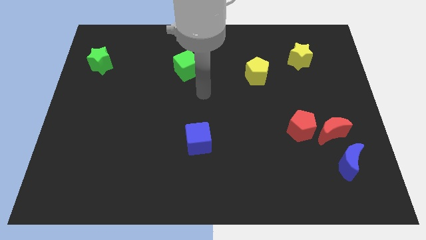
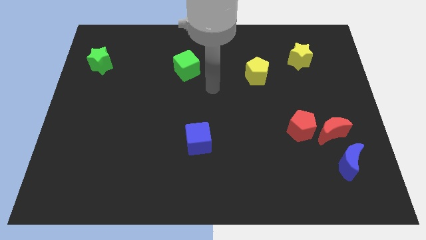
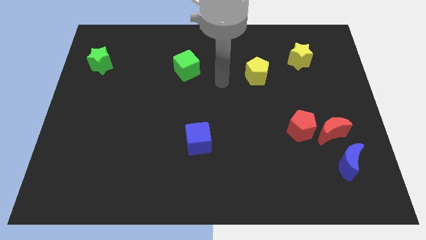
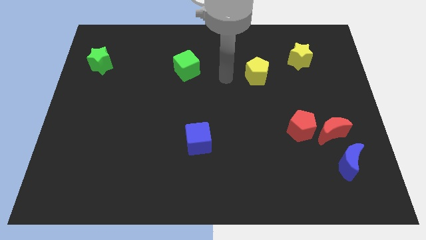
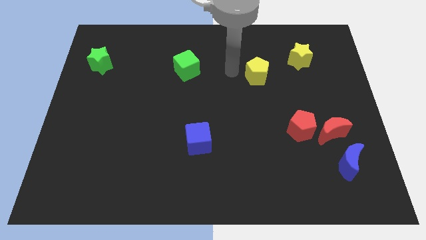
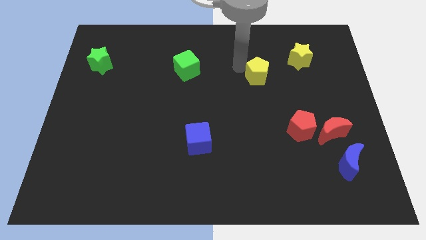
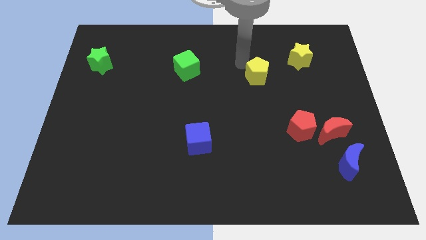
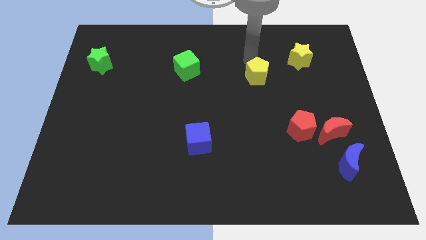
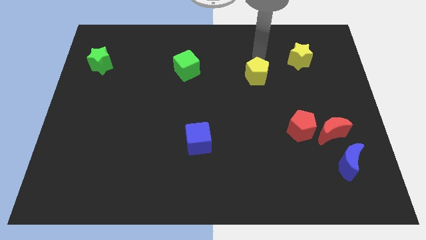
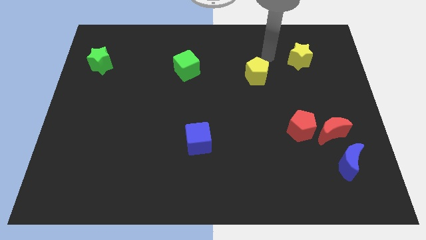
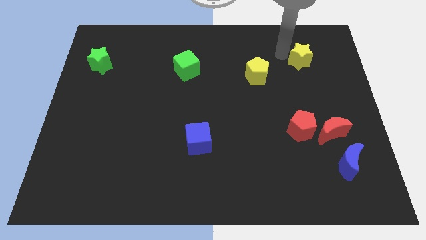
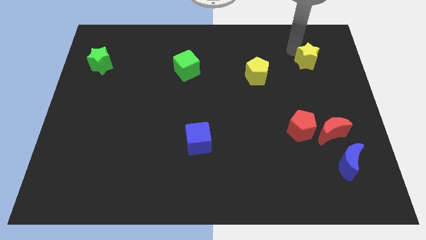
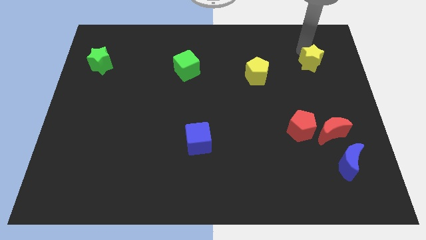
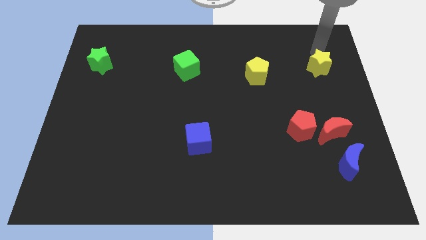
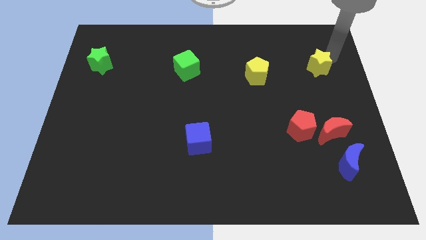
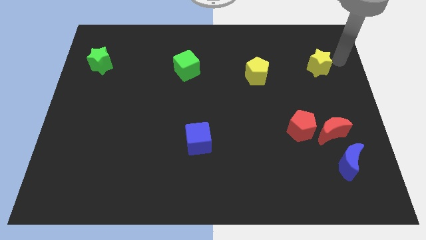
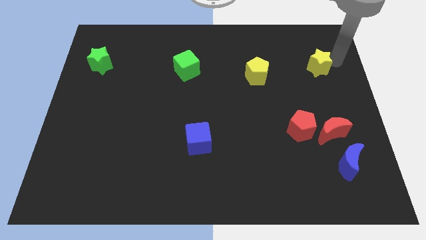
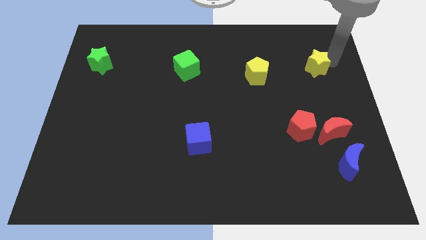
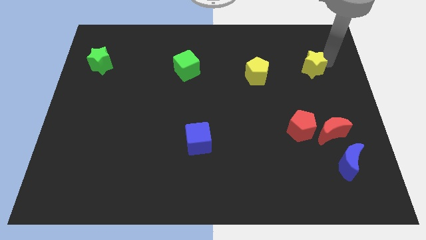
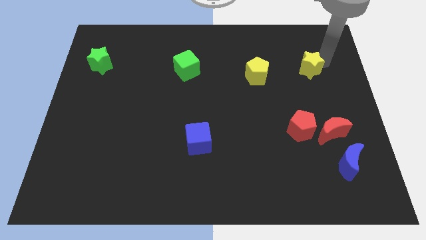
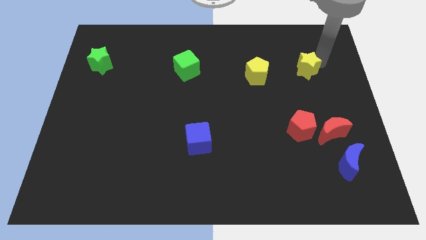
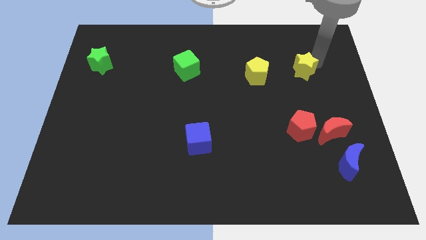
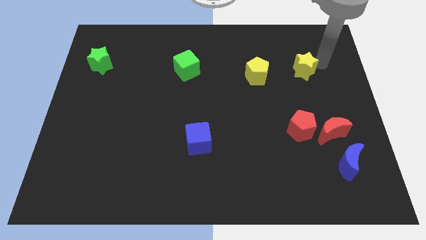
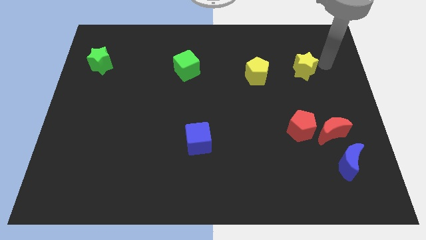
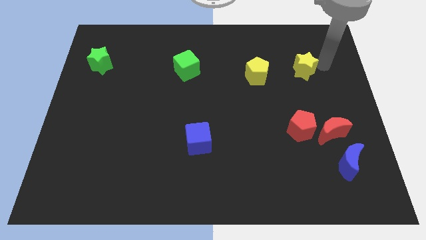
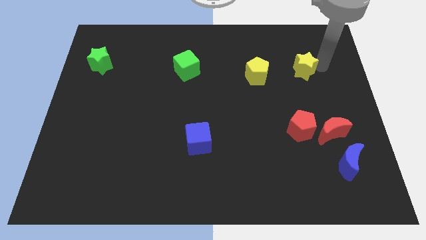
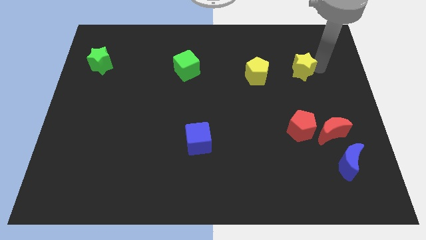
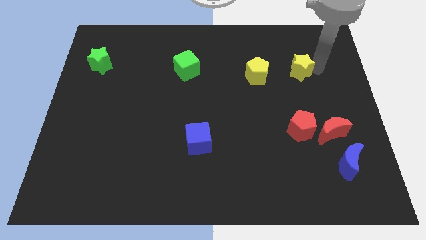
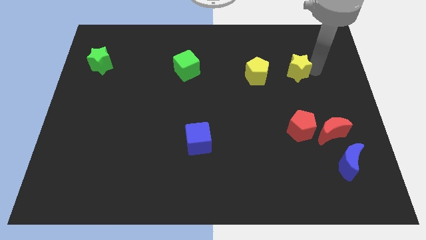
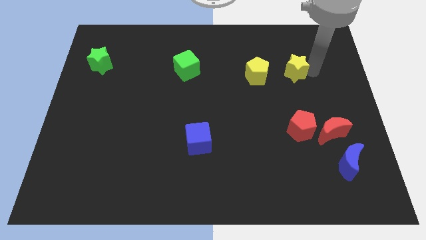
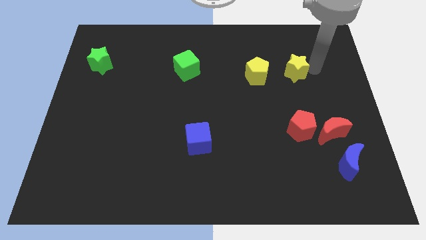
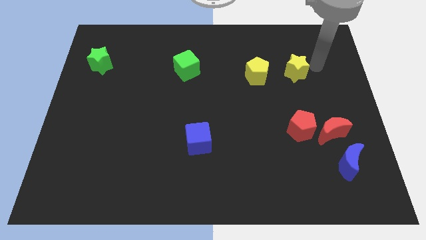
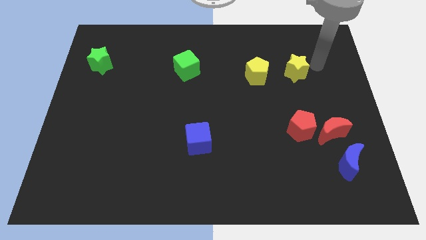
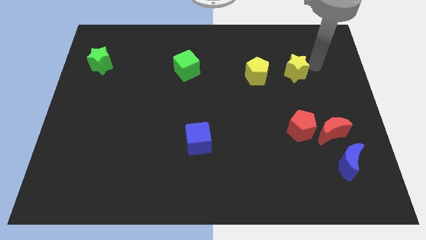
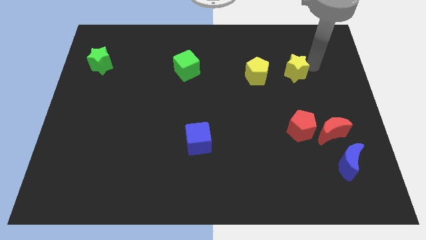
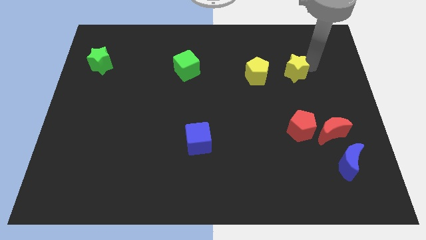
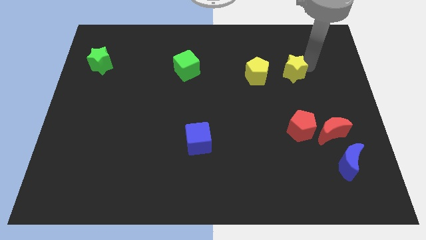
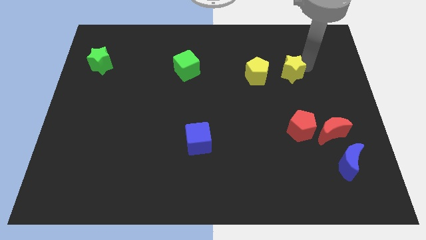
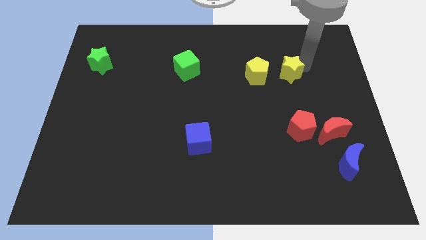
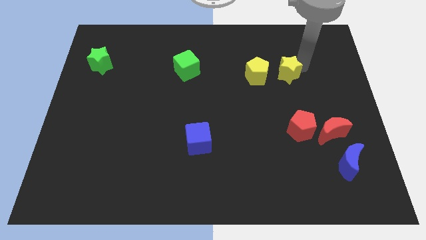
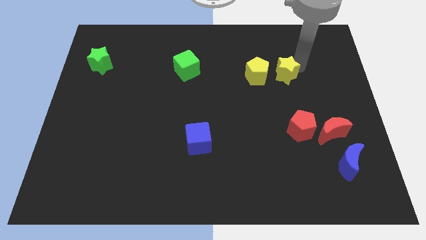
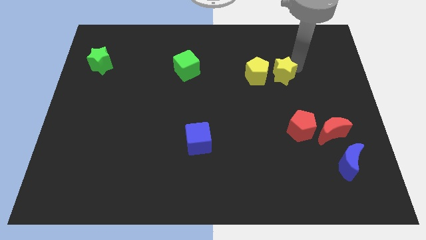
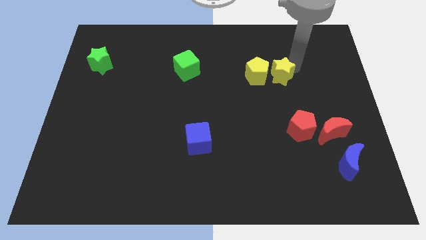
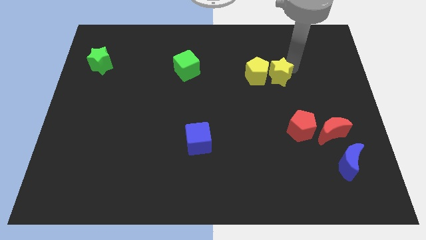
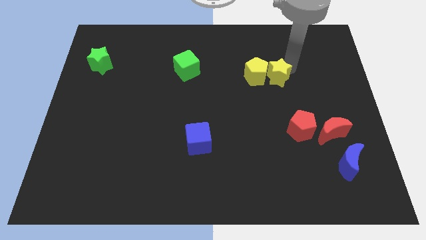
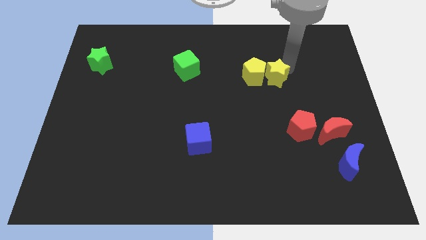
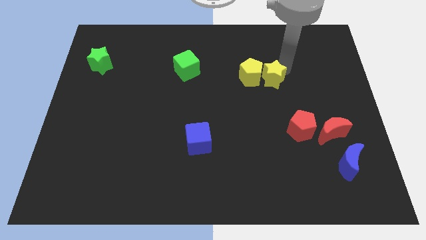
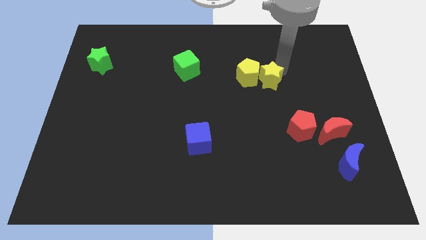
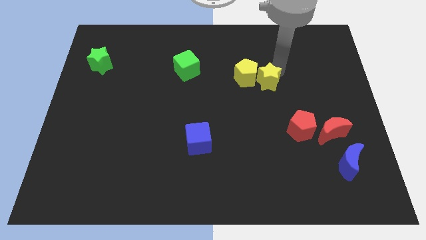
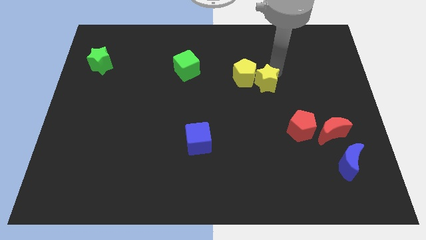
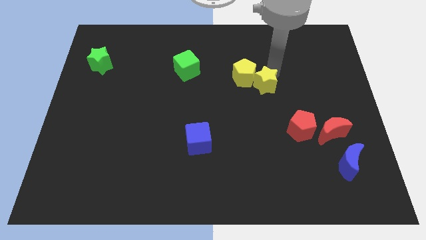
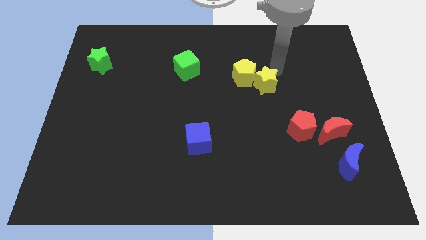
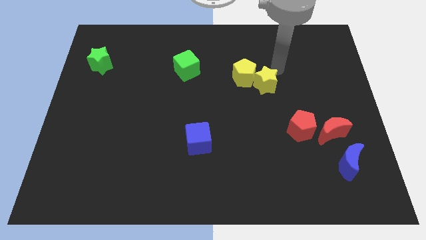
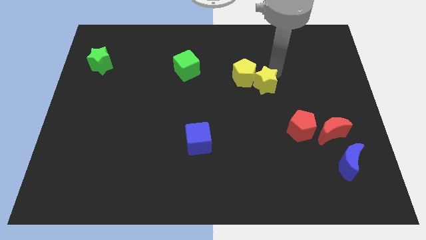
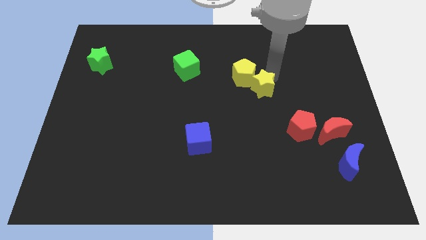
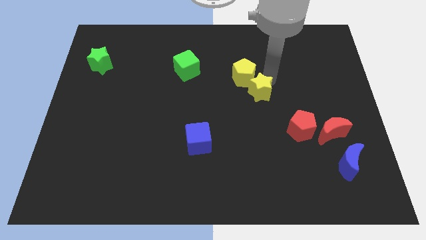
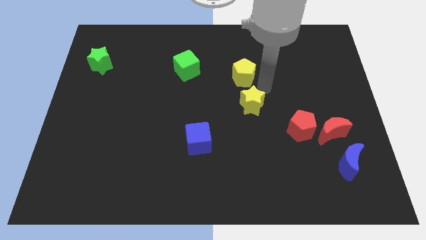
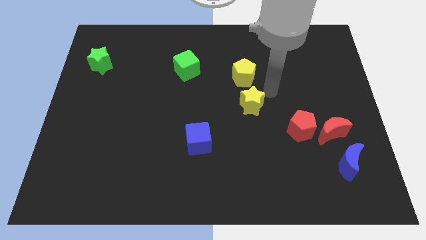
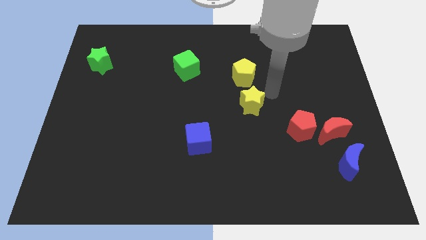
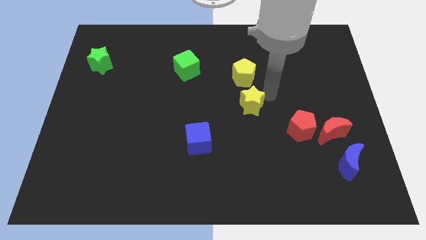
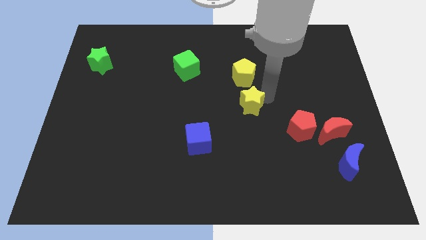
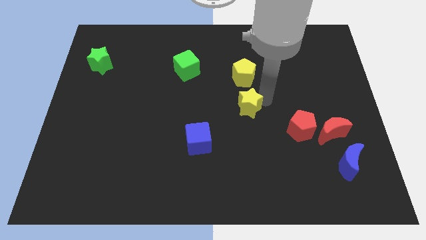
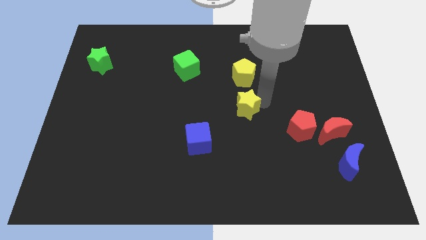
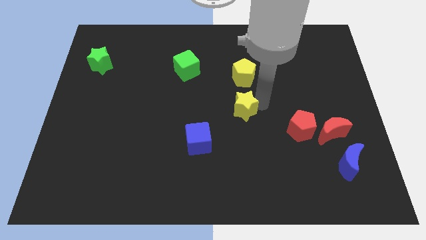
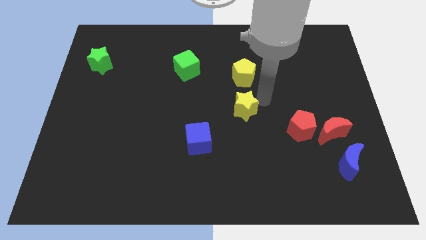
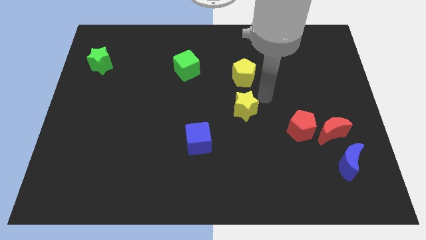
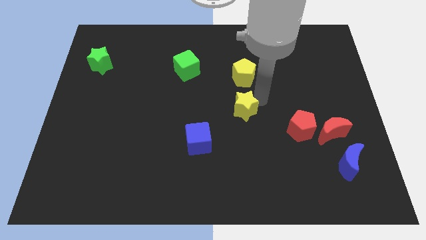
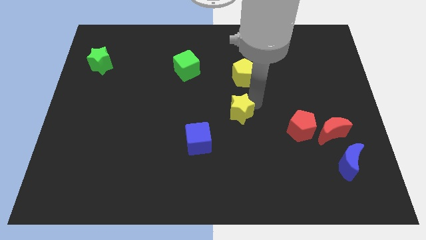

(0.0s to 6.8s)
move the yellow star to the top right side of the blue cube

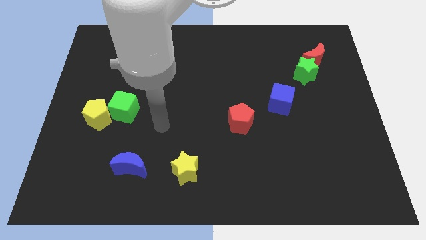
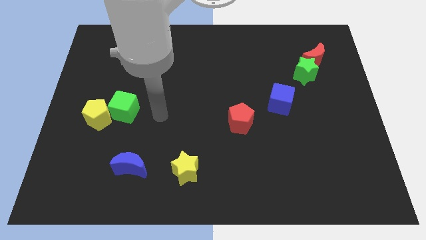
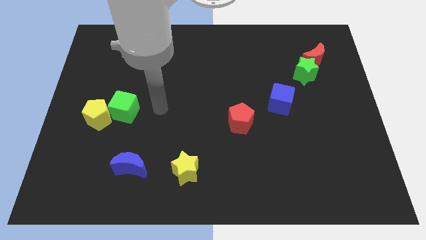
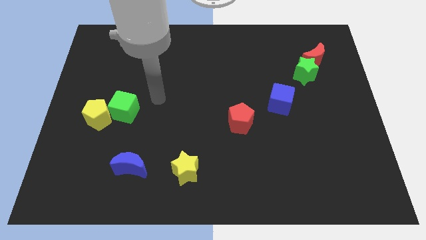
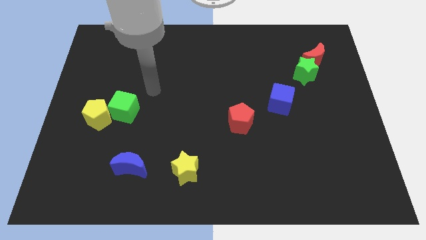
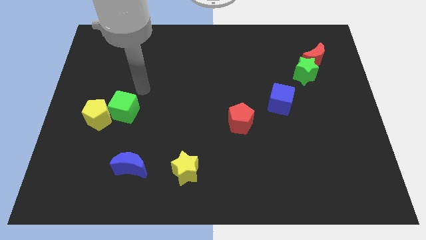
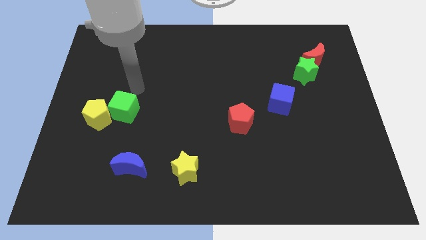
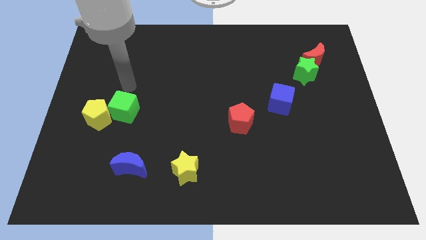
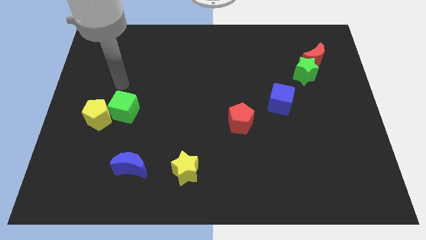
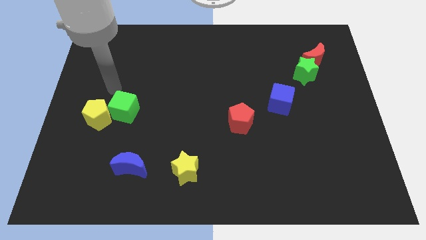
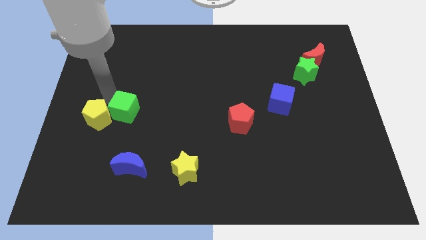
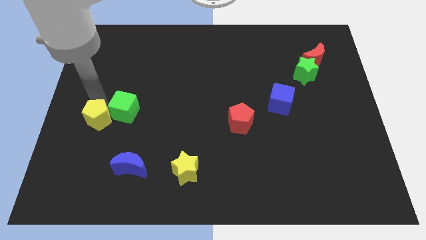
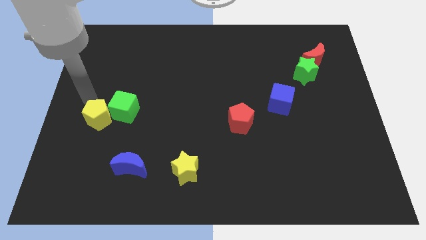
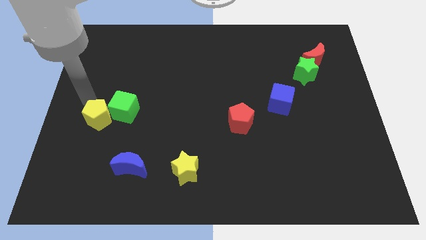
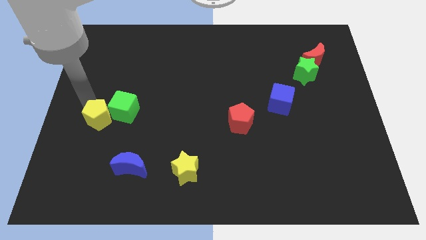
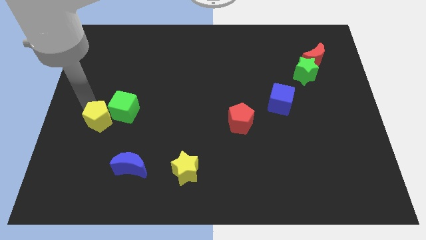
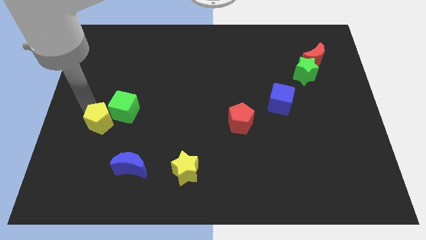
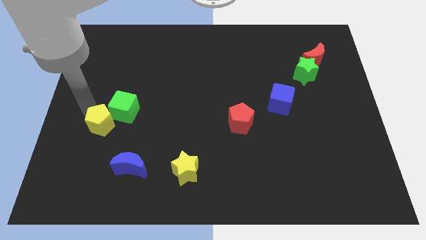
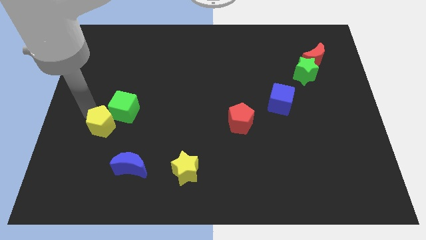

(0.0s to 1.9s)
move the yellow pentagon to the bottom side of the green cube
